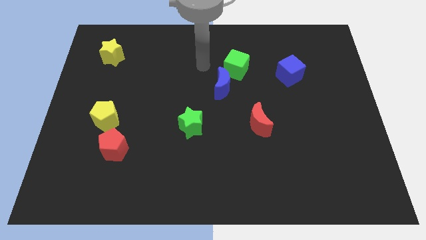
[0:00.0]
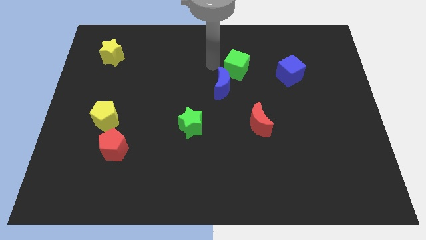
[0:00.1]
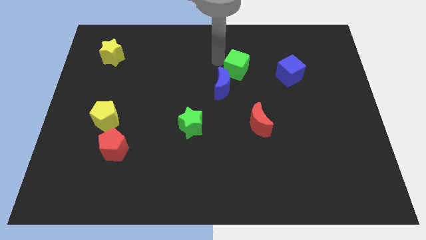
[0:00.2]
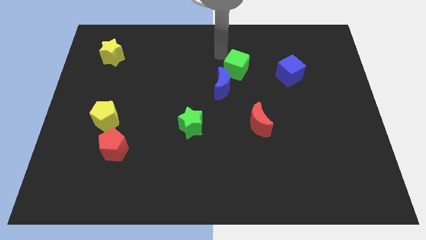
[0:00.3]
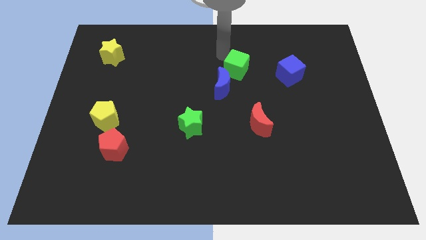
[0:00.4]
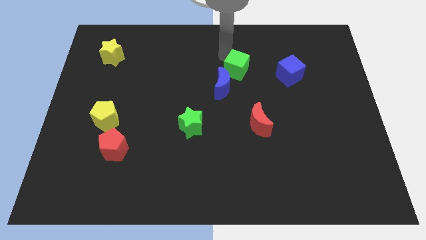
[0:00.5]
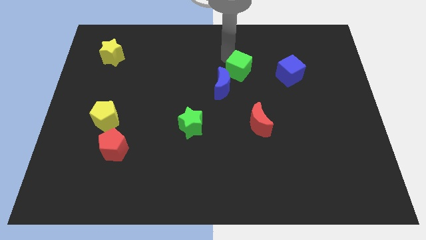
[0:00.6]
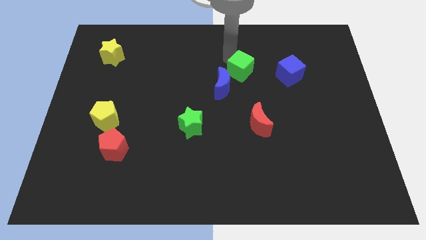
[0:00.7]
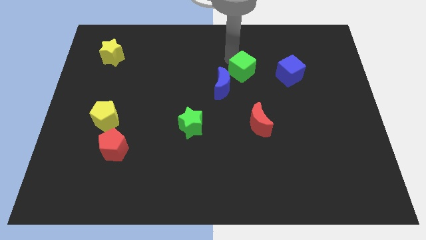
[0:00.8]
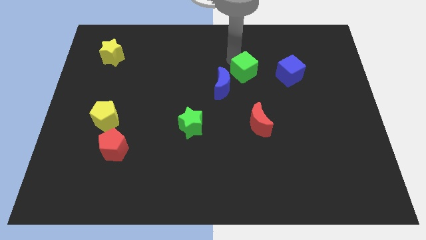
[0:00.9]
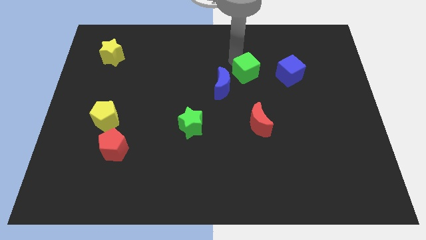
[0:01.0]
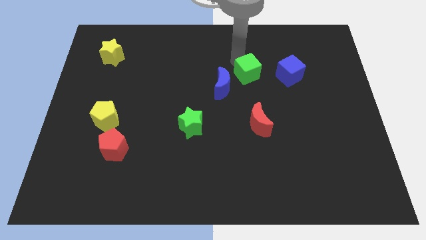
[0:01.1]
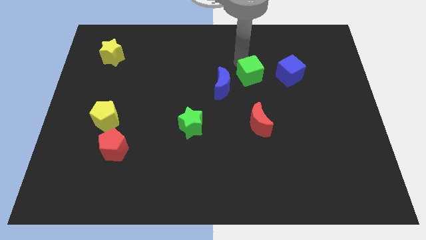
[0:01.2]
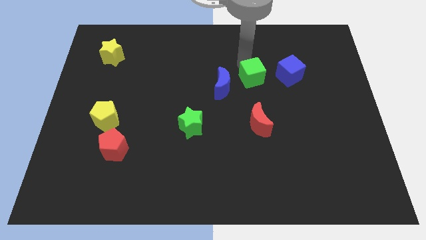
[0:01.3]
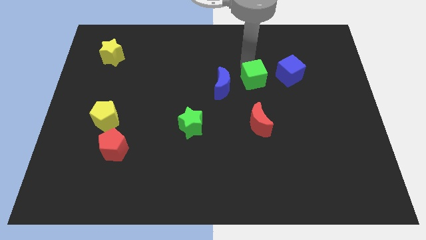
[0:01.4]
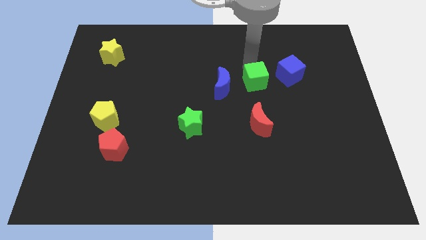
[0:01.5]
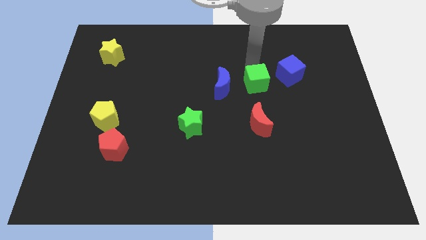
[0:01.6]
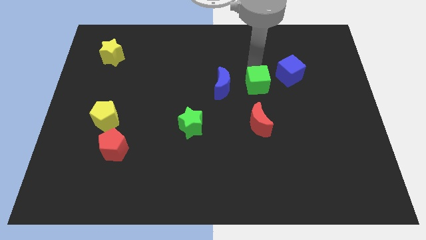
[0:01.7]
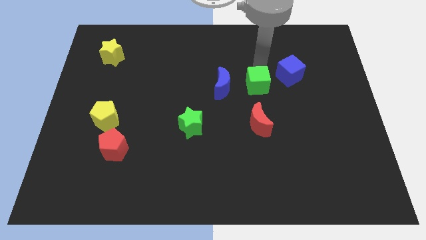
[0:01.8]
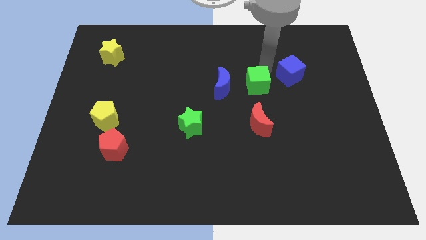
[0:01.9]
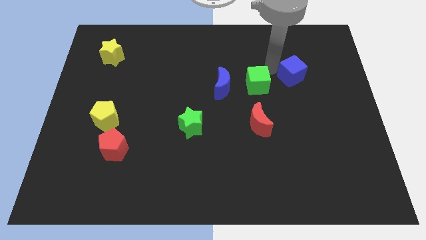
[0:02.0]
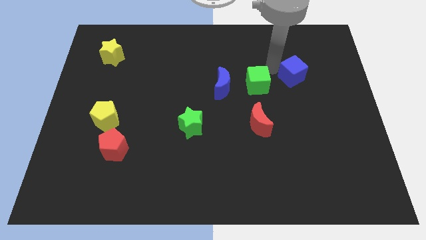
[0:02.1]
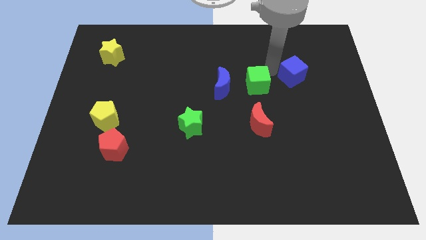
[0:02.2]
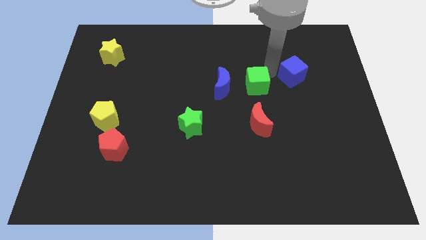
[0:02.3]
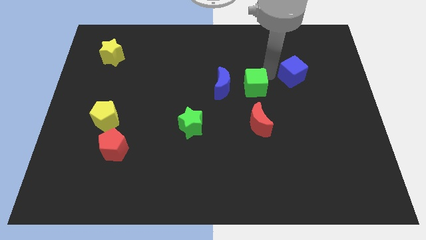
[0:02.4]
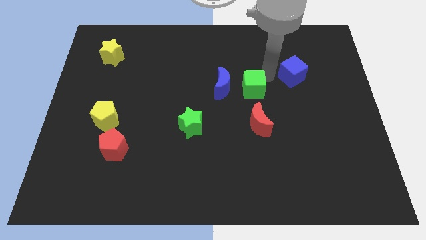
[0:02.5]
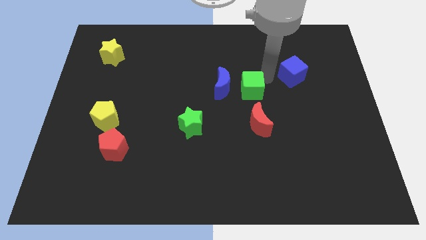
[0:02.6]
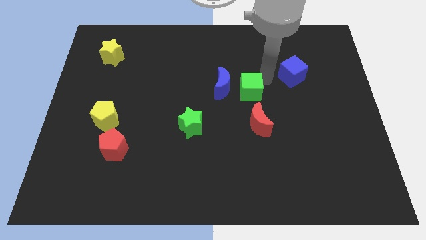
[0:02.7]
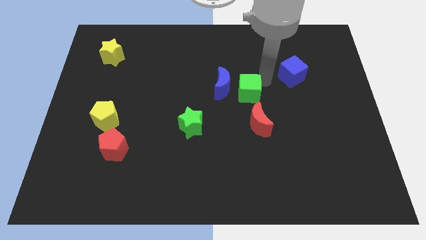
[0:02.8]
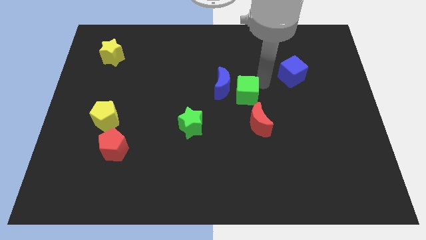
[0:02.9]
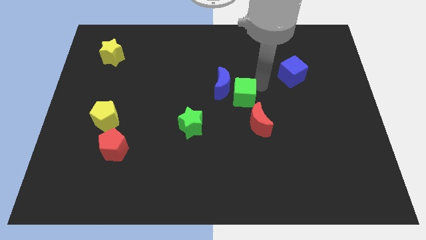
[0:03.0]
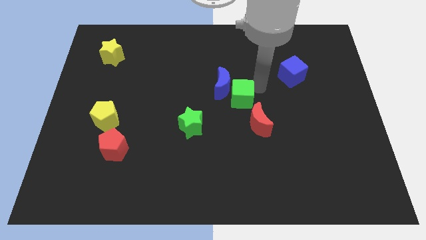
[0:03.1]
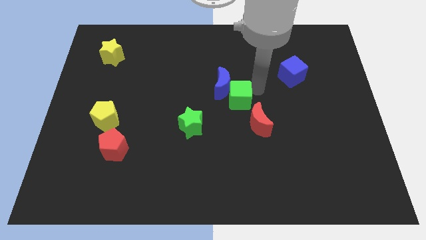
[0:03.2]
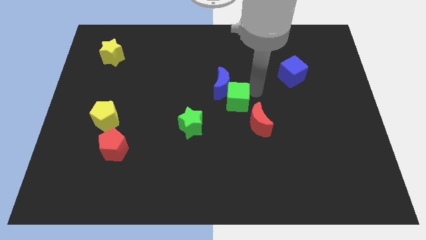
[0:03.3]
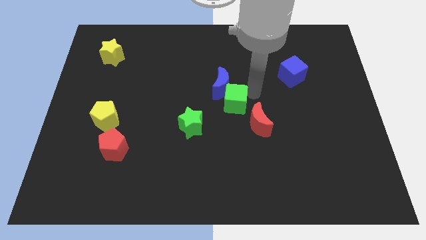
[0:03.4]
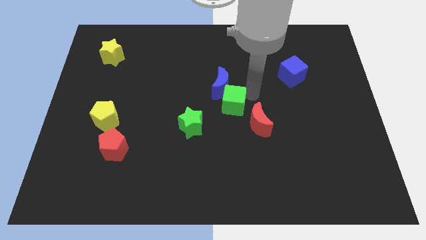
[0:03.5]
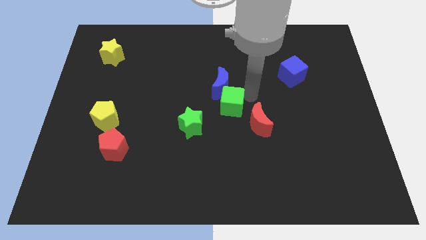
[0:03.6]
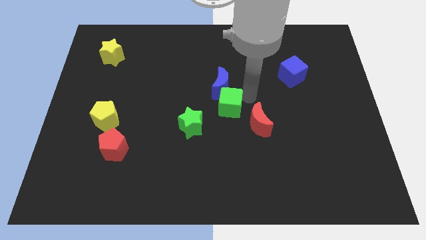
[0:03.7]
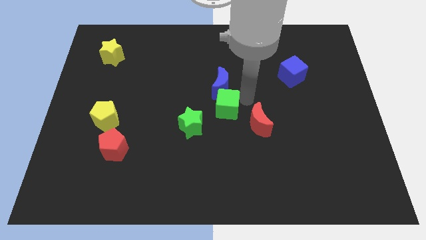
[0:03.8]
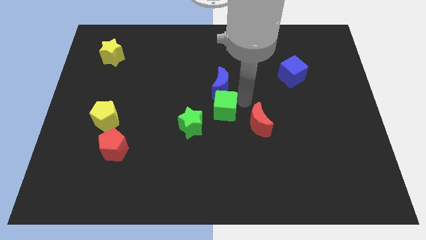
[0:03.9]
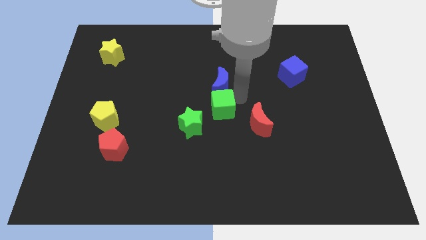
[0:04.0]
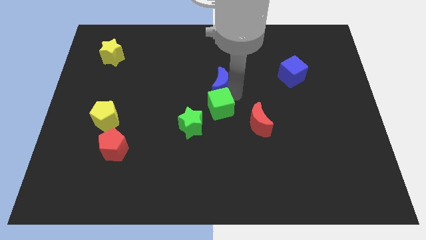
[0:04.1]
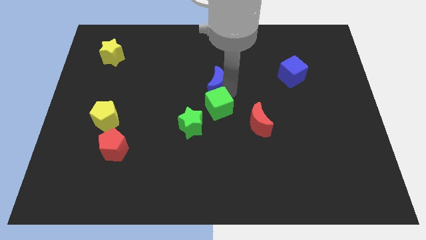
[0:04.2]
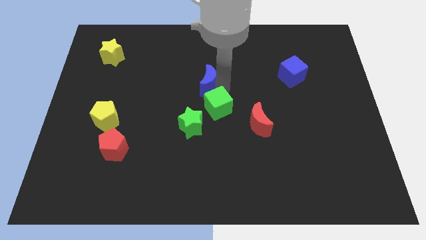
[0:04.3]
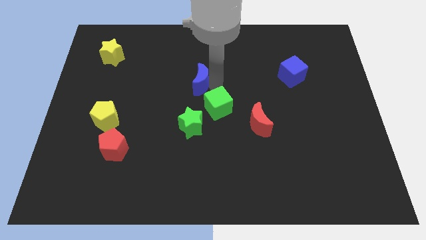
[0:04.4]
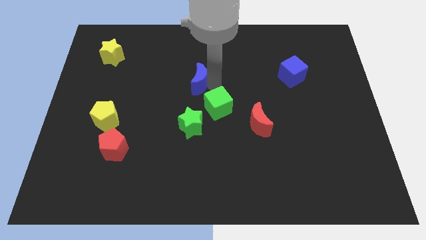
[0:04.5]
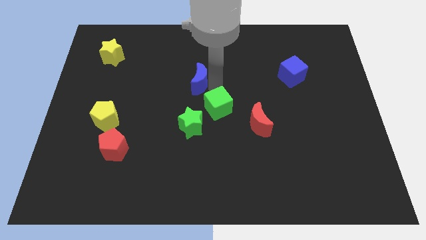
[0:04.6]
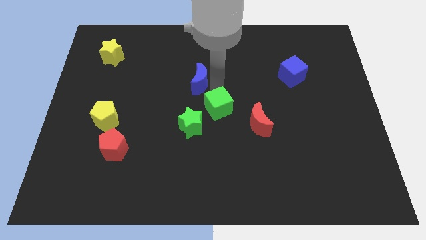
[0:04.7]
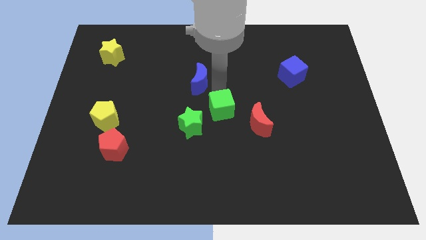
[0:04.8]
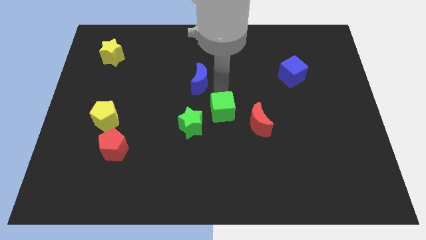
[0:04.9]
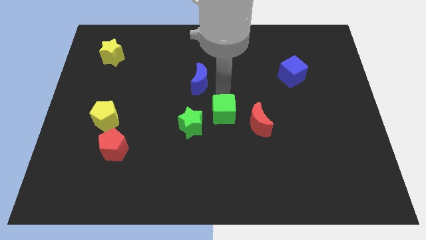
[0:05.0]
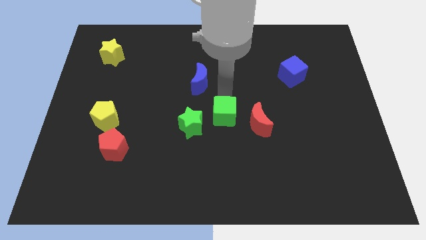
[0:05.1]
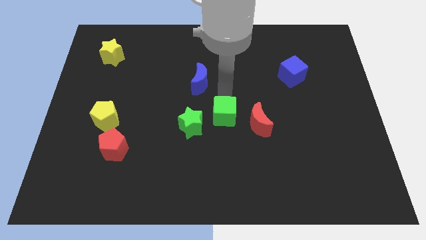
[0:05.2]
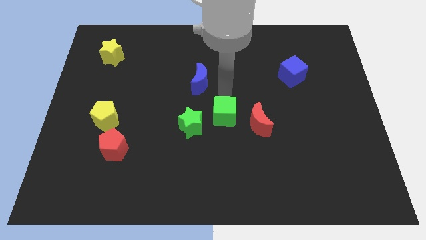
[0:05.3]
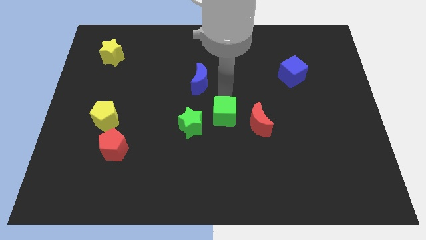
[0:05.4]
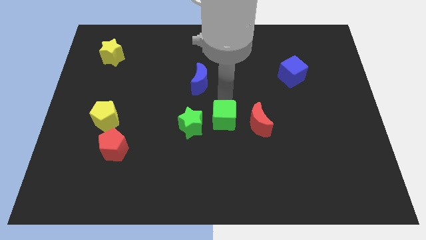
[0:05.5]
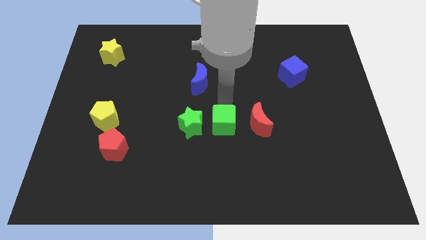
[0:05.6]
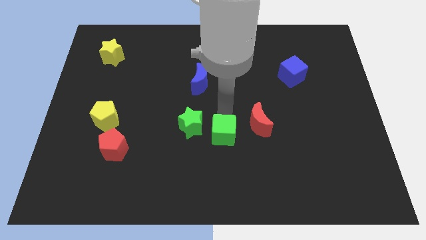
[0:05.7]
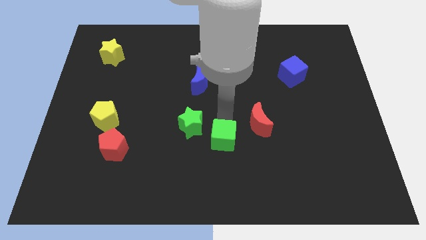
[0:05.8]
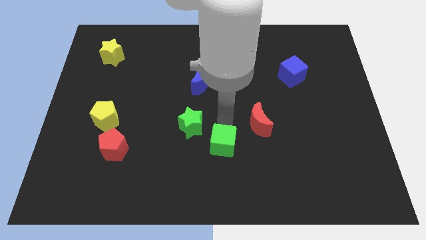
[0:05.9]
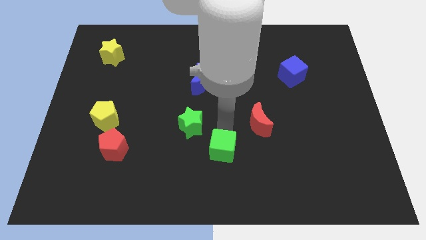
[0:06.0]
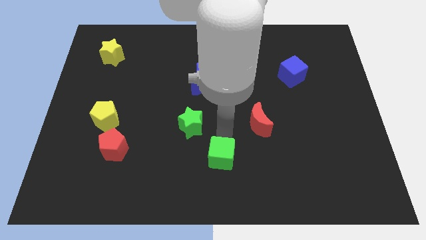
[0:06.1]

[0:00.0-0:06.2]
slide the green cube to the bottom side

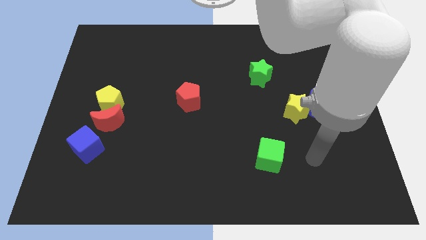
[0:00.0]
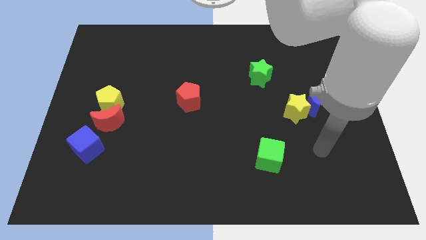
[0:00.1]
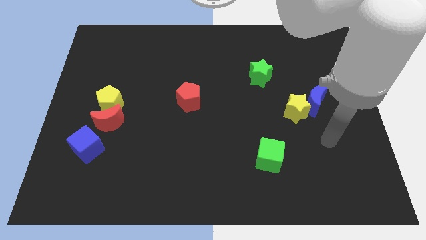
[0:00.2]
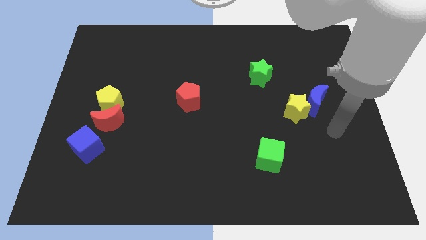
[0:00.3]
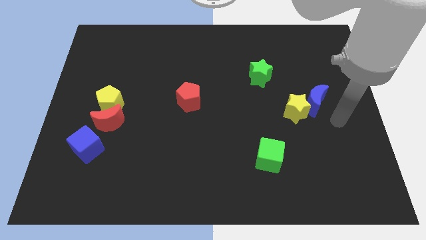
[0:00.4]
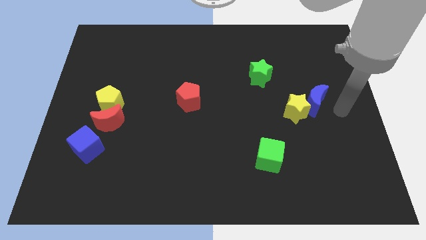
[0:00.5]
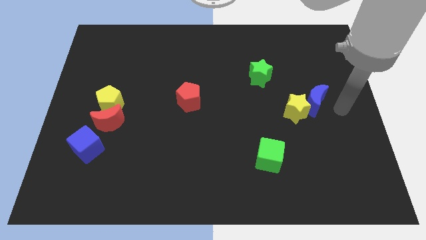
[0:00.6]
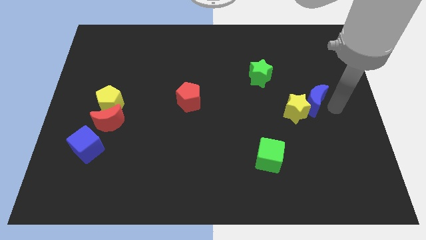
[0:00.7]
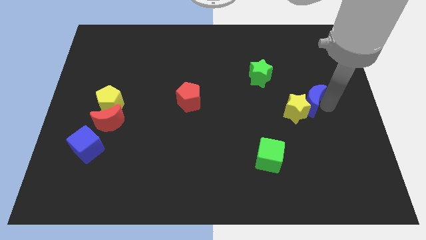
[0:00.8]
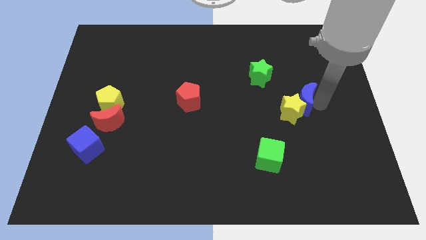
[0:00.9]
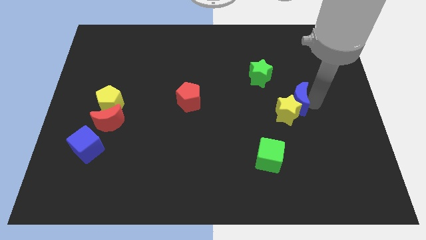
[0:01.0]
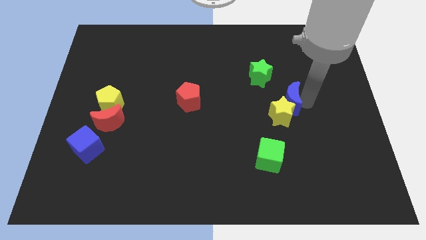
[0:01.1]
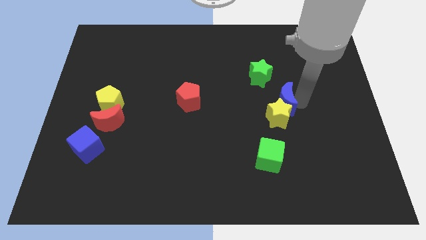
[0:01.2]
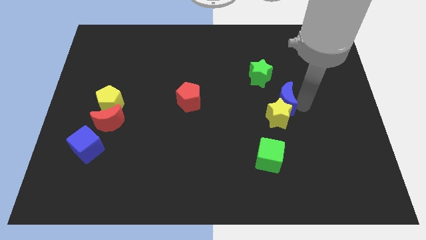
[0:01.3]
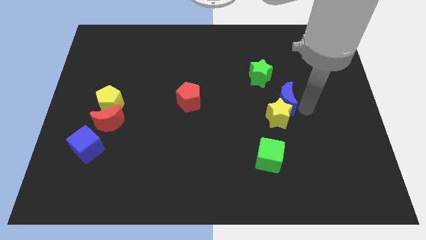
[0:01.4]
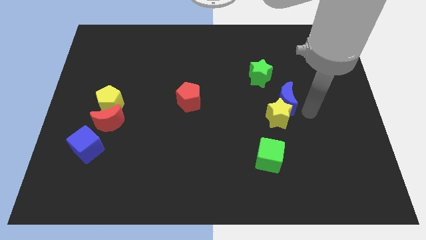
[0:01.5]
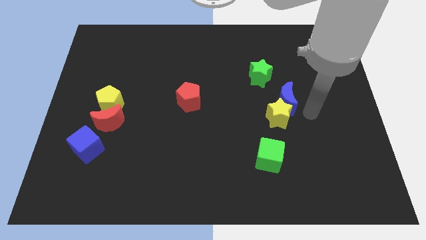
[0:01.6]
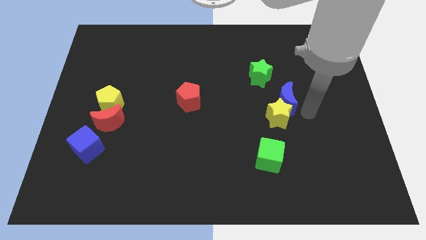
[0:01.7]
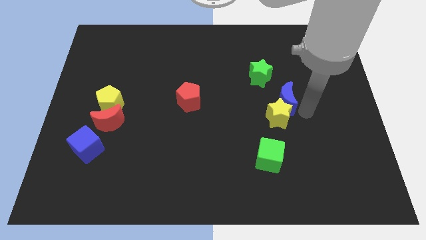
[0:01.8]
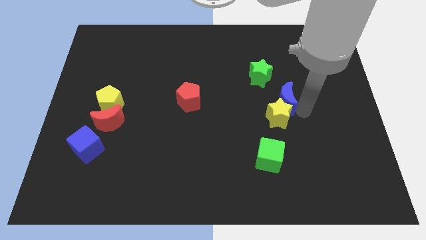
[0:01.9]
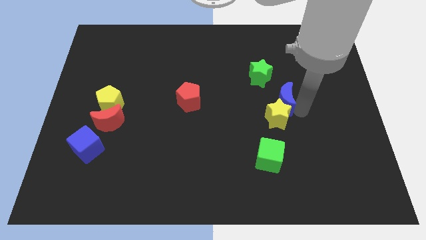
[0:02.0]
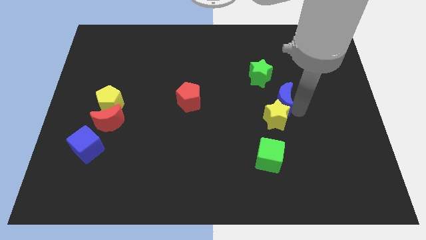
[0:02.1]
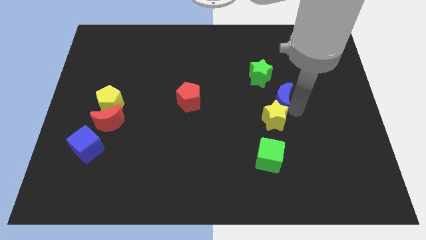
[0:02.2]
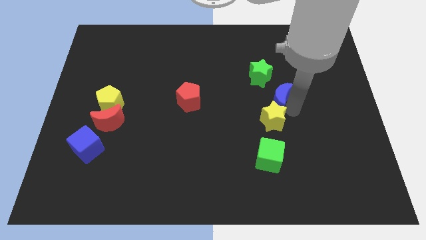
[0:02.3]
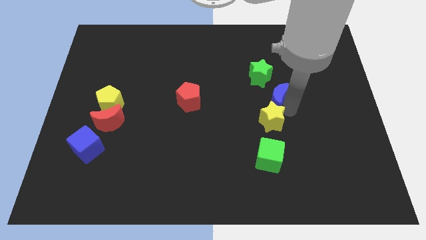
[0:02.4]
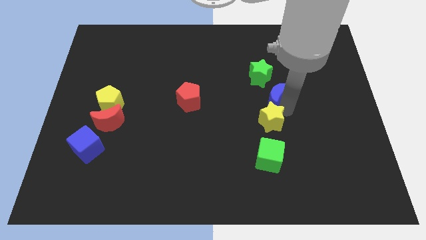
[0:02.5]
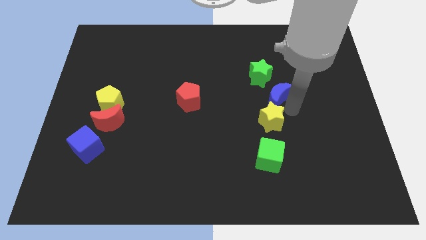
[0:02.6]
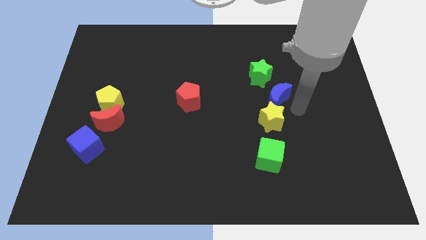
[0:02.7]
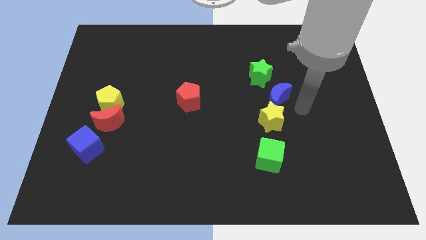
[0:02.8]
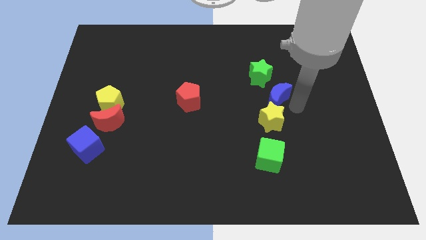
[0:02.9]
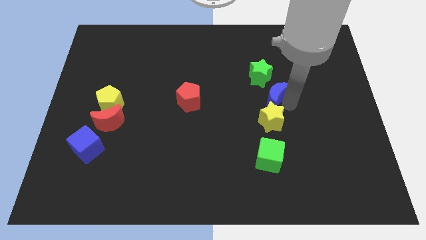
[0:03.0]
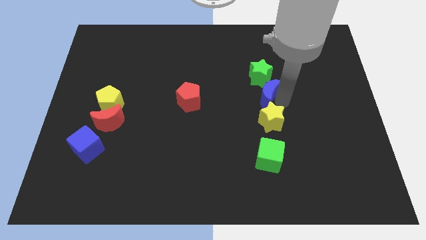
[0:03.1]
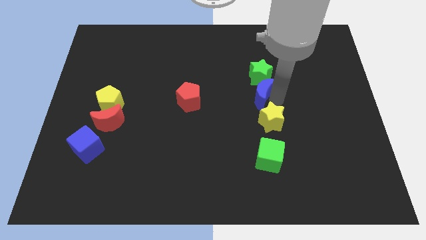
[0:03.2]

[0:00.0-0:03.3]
move the blue moon to the center
